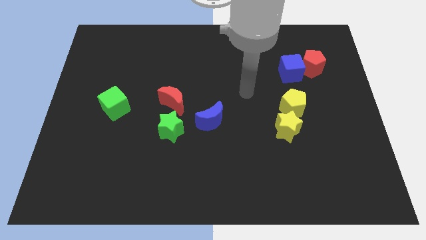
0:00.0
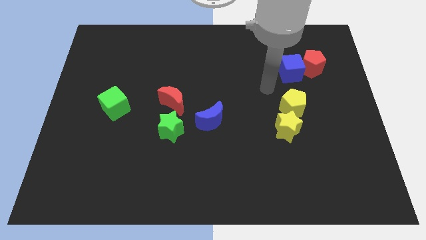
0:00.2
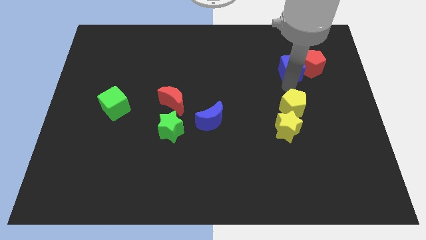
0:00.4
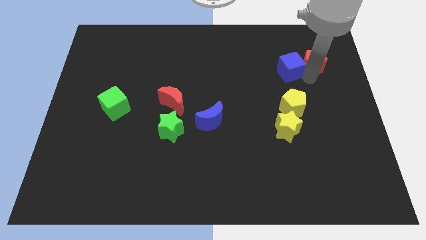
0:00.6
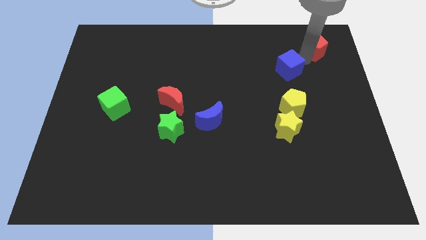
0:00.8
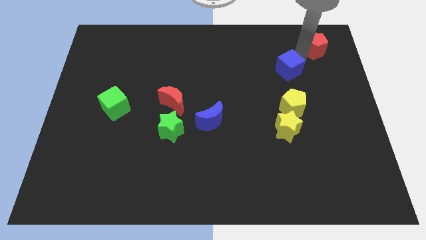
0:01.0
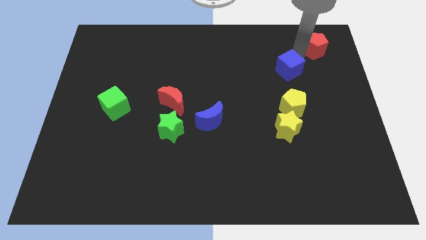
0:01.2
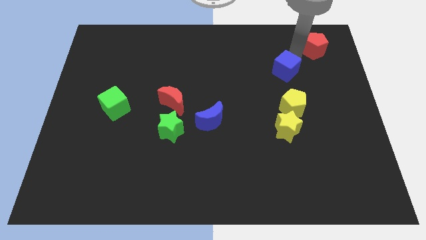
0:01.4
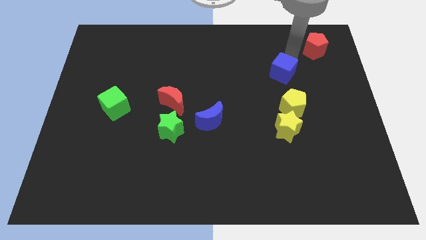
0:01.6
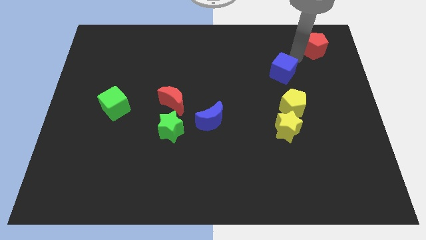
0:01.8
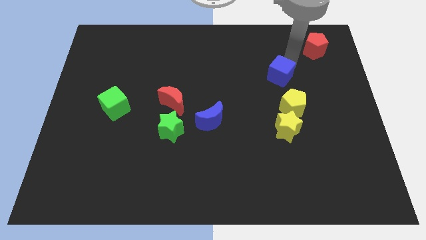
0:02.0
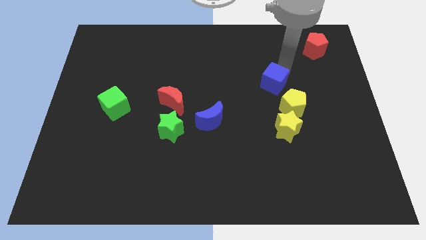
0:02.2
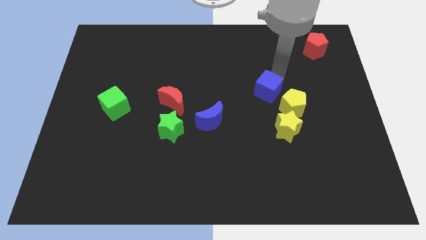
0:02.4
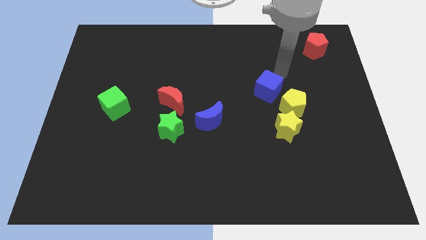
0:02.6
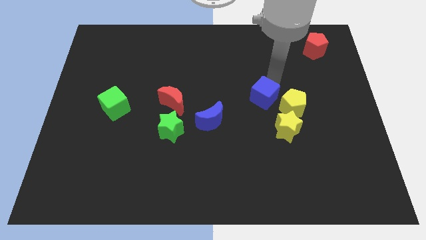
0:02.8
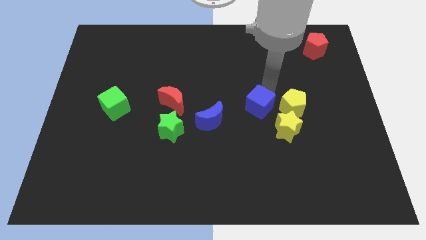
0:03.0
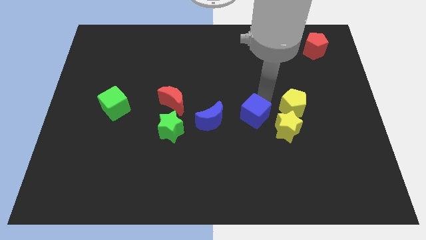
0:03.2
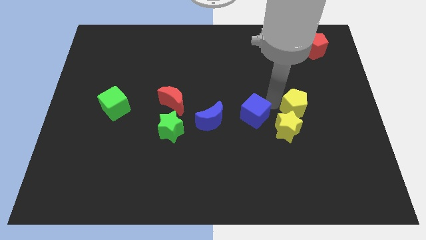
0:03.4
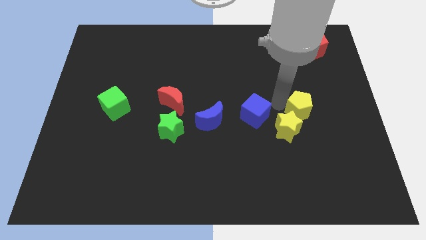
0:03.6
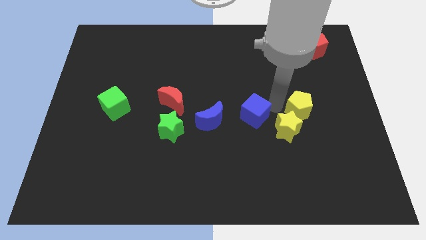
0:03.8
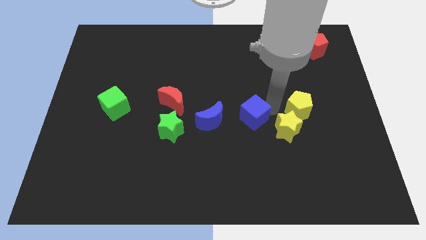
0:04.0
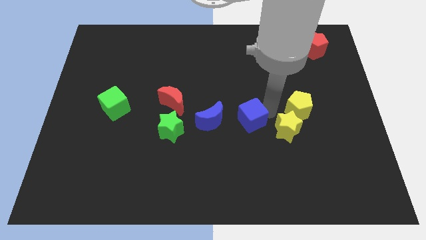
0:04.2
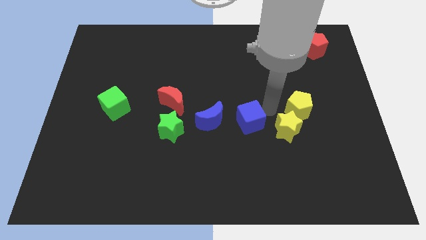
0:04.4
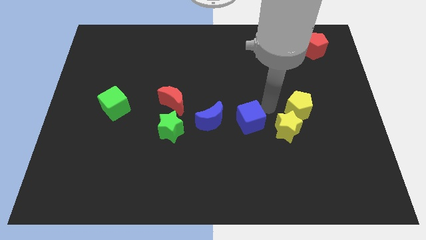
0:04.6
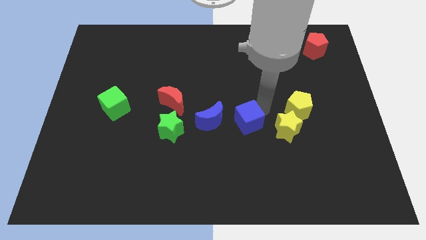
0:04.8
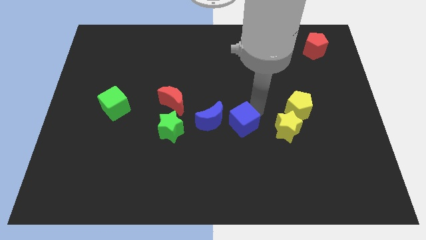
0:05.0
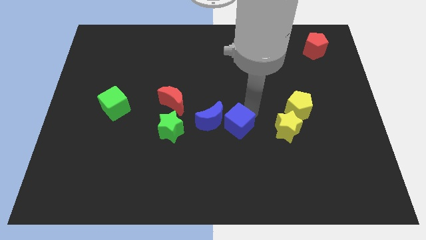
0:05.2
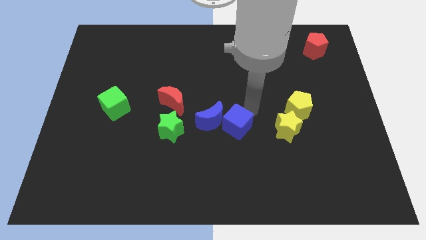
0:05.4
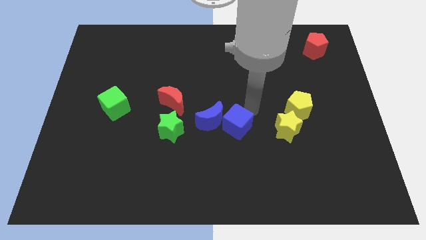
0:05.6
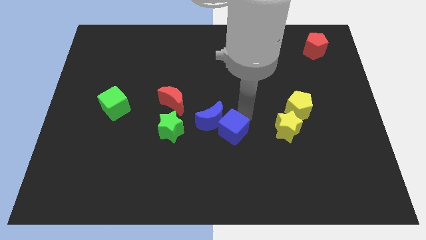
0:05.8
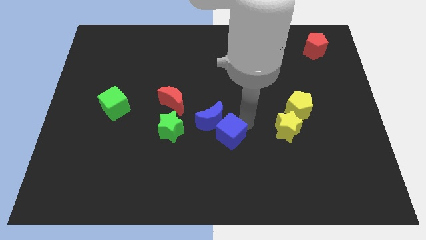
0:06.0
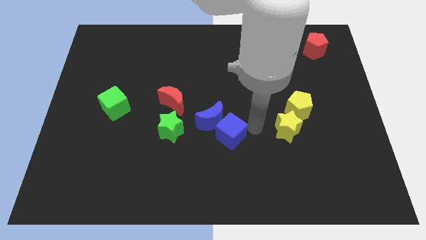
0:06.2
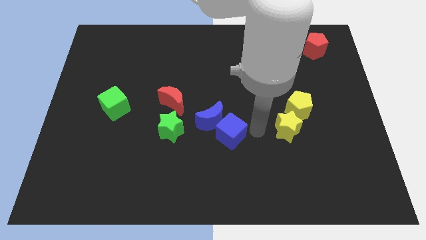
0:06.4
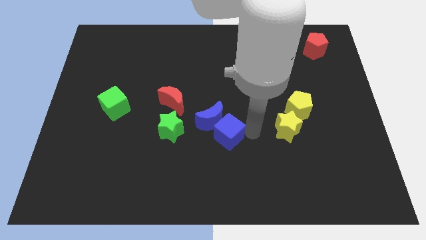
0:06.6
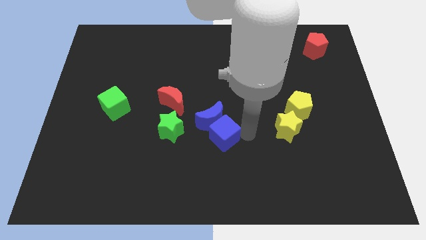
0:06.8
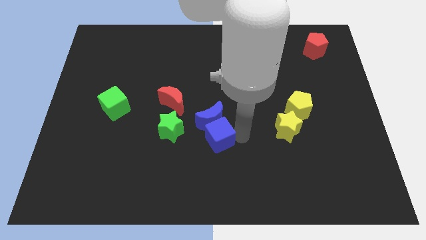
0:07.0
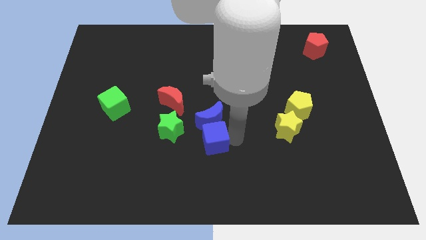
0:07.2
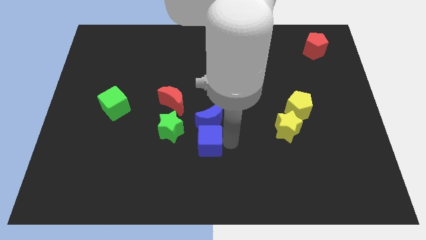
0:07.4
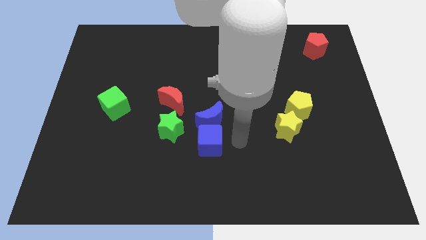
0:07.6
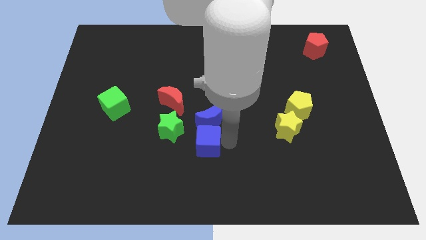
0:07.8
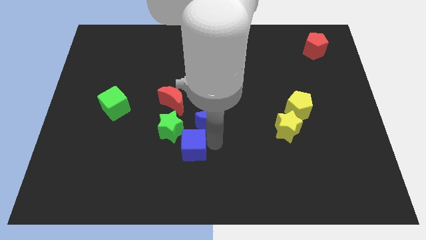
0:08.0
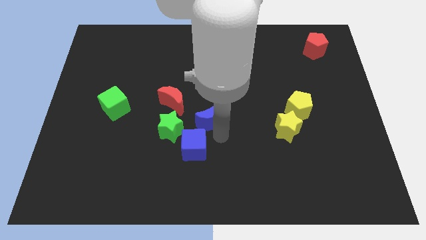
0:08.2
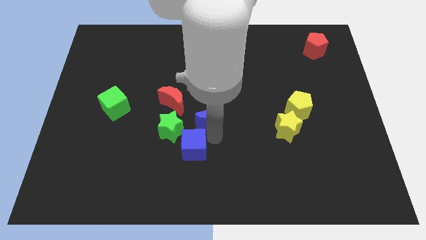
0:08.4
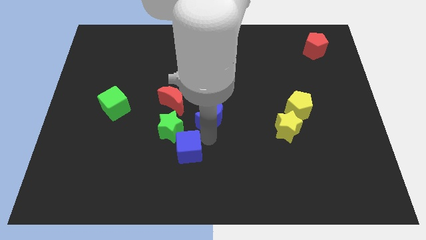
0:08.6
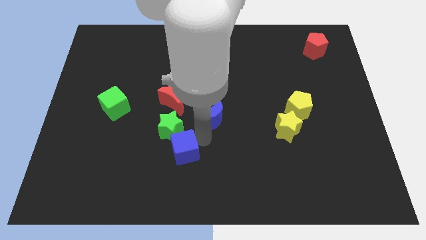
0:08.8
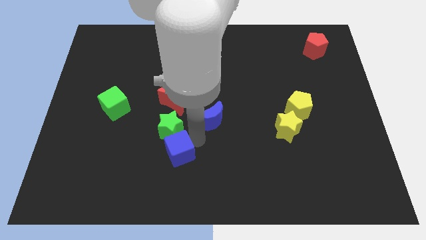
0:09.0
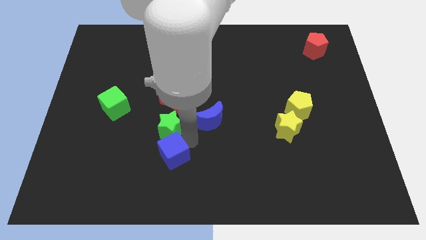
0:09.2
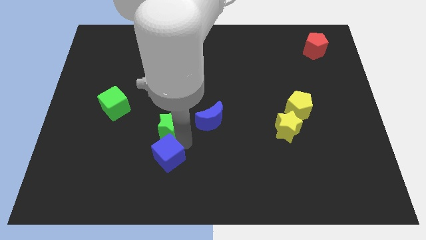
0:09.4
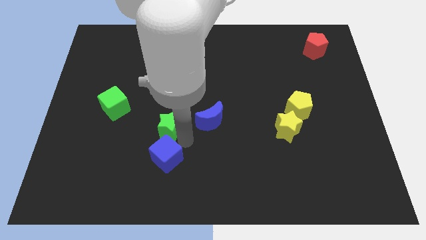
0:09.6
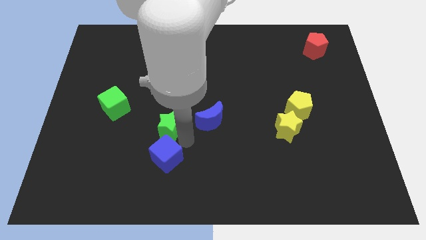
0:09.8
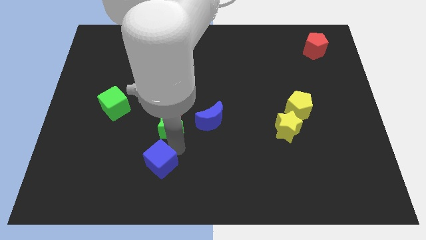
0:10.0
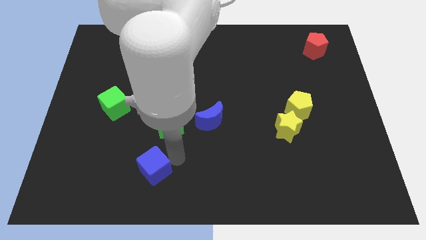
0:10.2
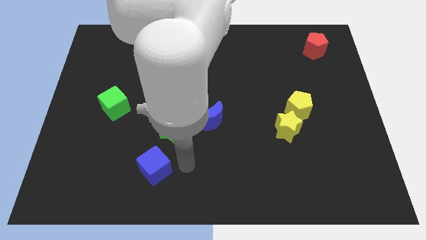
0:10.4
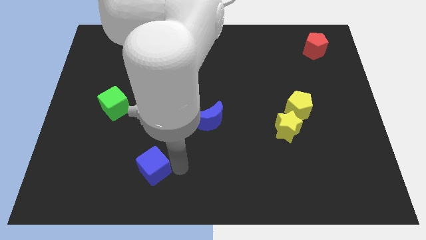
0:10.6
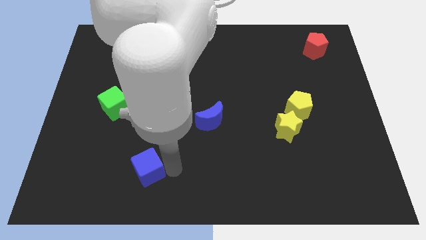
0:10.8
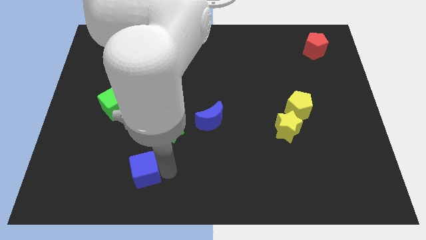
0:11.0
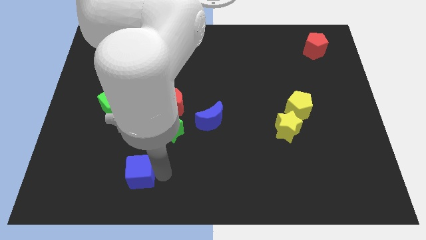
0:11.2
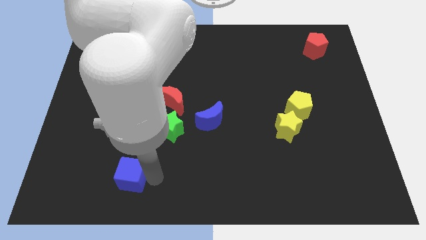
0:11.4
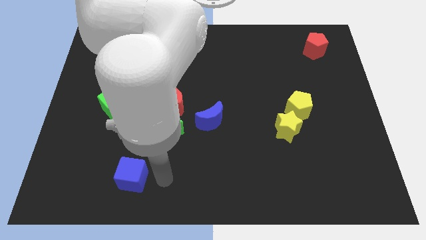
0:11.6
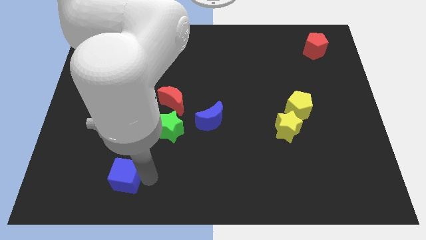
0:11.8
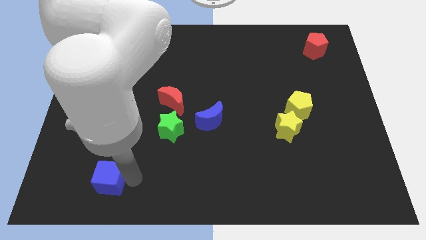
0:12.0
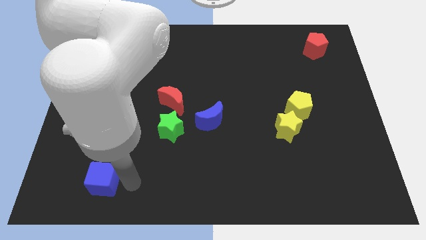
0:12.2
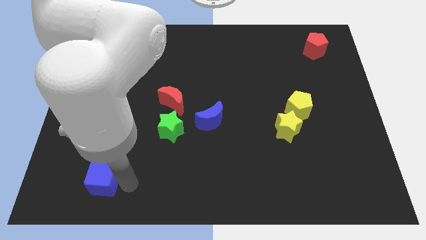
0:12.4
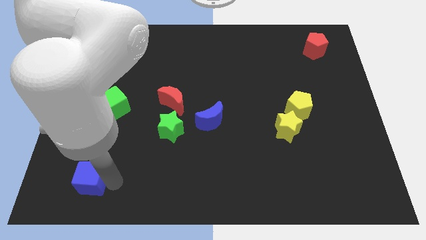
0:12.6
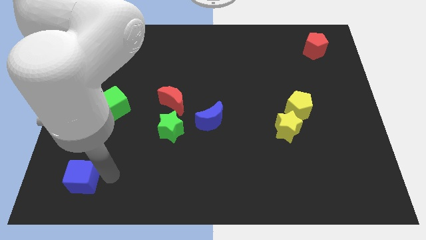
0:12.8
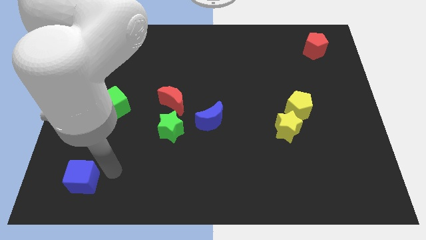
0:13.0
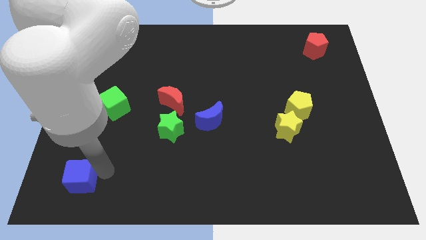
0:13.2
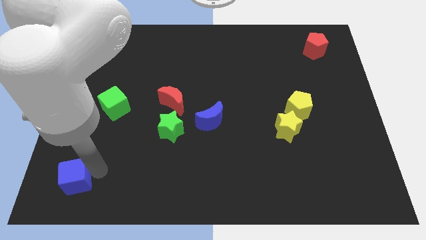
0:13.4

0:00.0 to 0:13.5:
push the blue cube to the bottom left corner

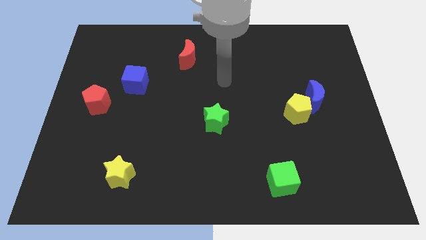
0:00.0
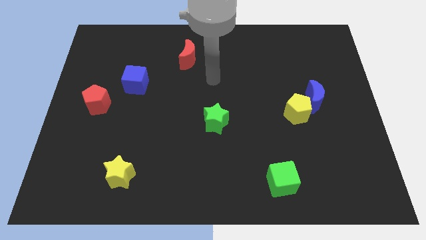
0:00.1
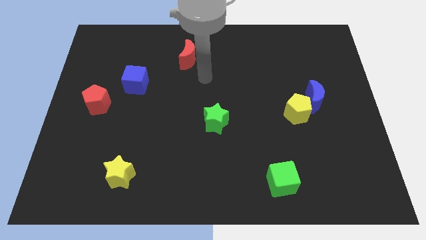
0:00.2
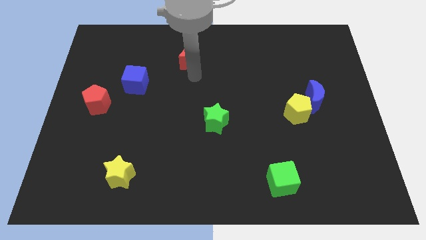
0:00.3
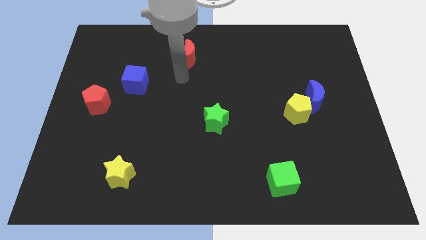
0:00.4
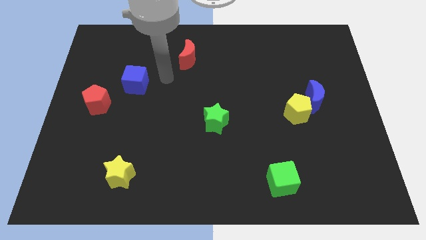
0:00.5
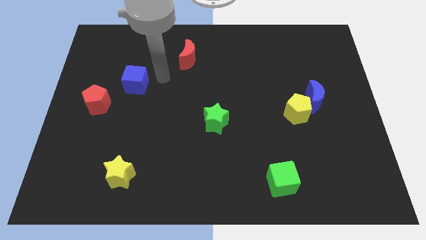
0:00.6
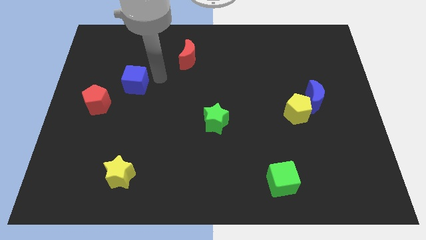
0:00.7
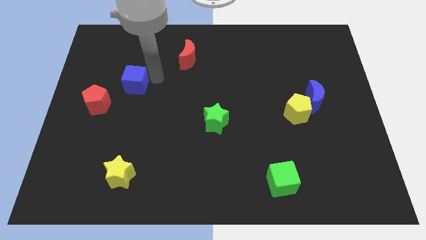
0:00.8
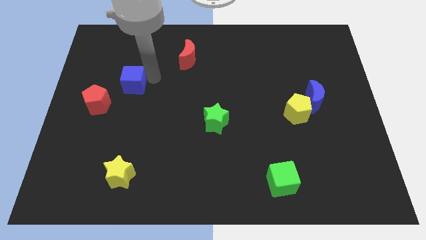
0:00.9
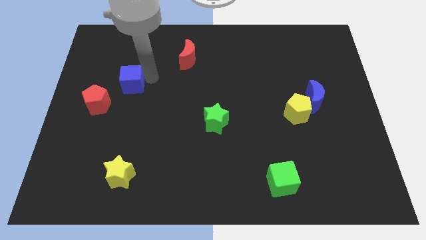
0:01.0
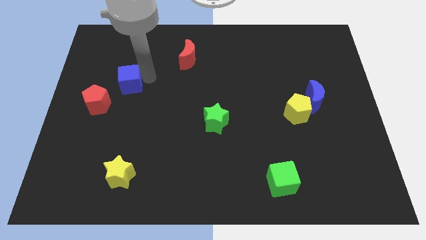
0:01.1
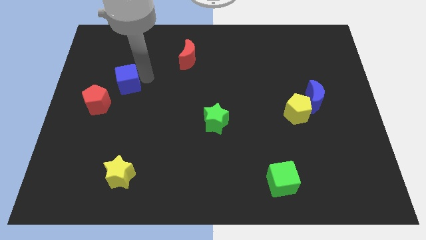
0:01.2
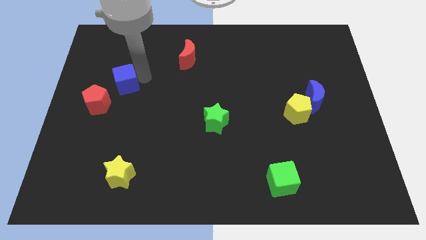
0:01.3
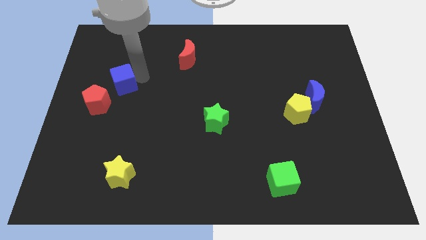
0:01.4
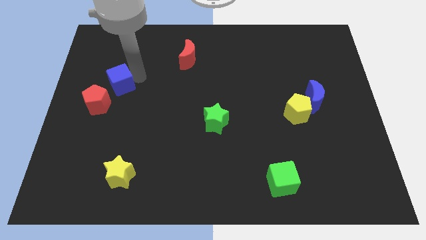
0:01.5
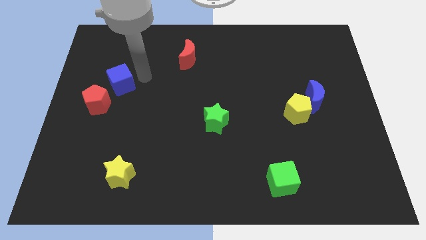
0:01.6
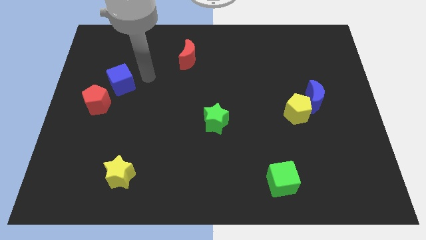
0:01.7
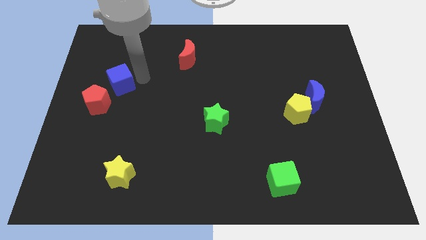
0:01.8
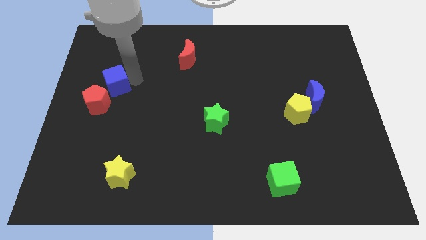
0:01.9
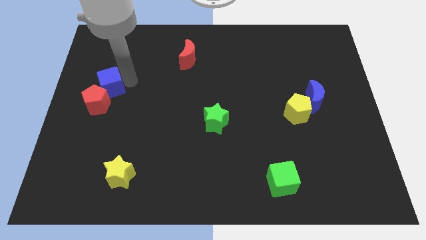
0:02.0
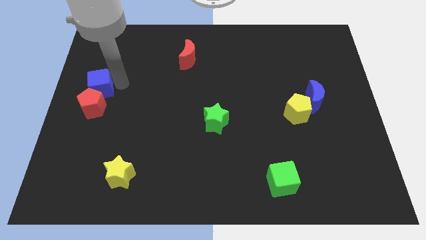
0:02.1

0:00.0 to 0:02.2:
push the blue cube to the left side of the board
